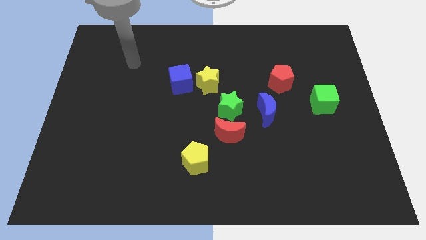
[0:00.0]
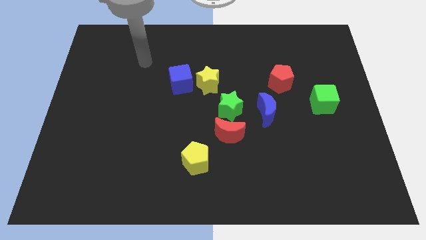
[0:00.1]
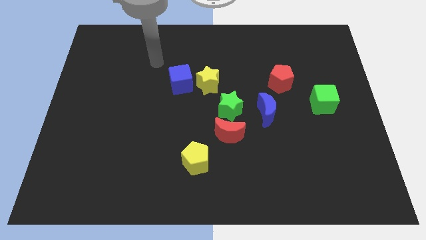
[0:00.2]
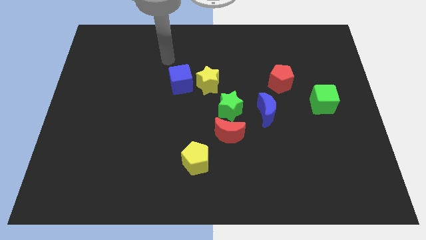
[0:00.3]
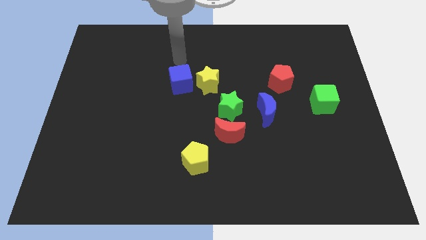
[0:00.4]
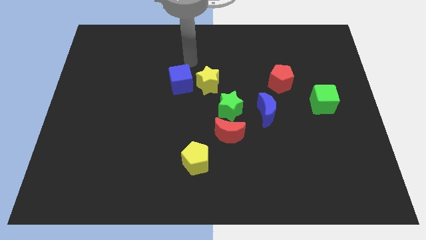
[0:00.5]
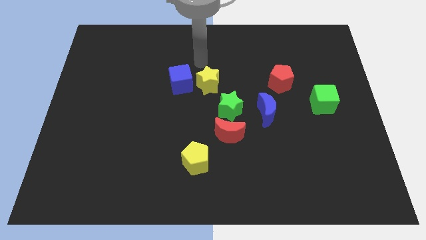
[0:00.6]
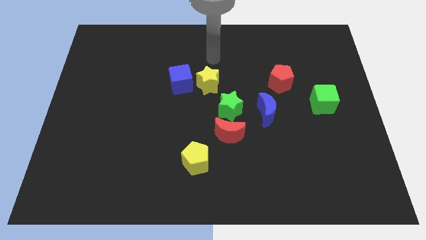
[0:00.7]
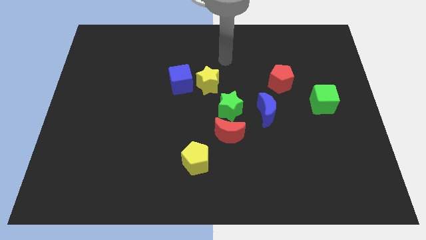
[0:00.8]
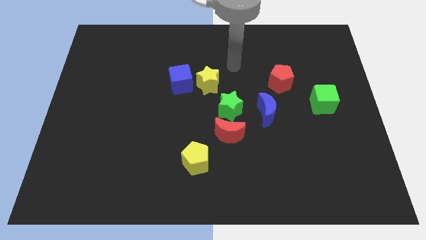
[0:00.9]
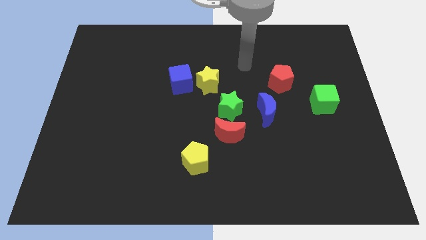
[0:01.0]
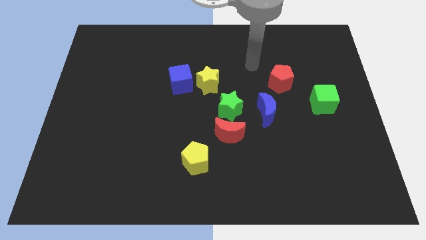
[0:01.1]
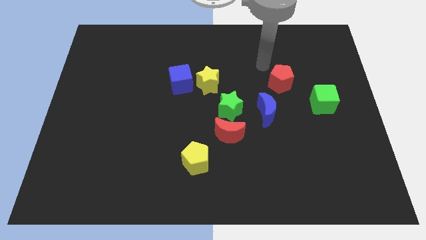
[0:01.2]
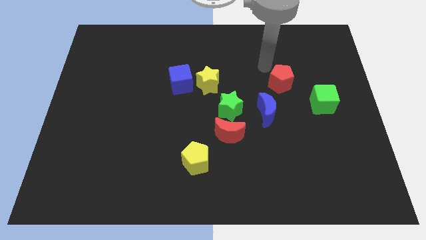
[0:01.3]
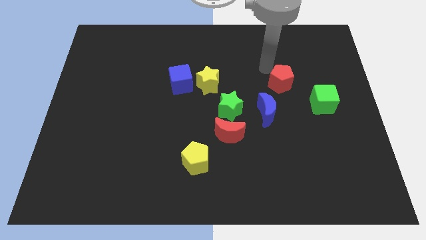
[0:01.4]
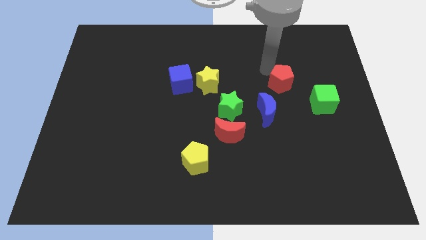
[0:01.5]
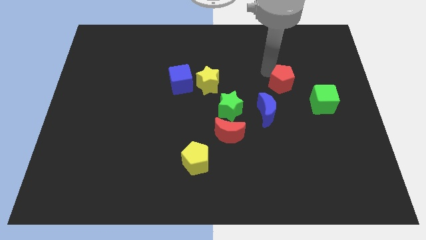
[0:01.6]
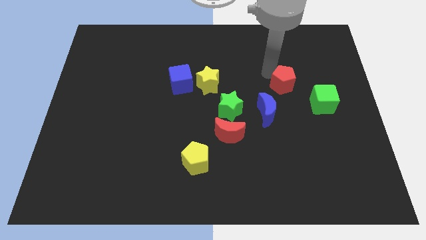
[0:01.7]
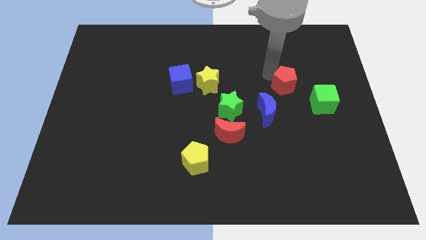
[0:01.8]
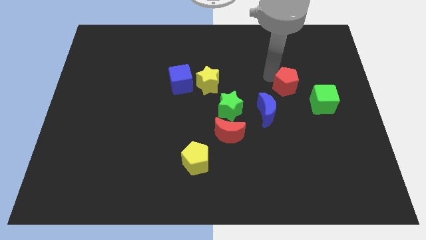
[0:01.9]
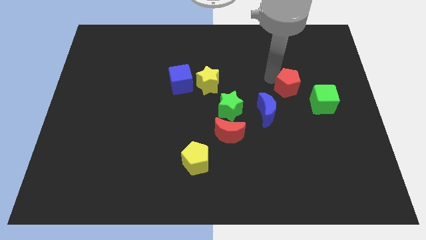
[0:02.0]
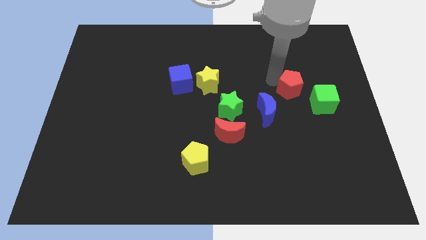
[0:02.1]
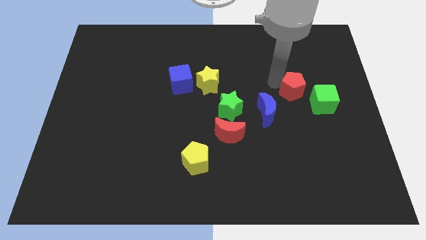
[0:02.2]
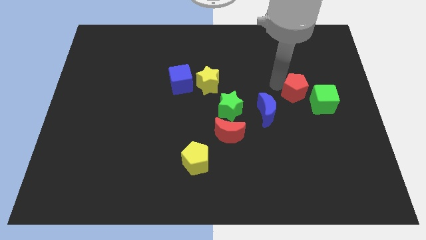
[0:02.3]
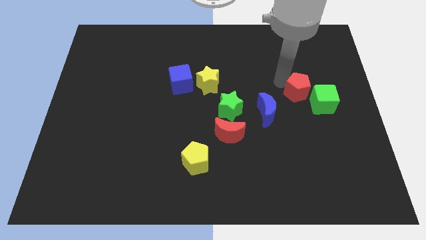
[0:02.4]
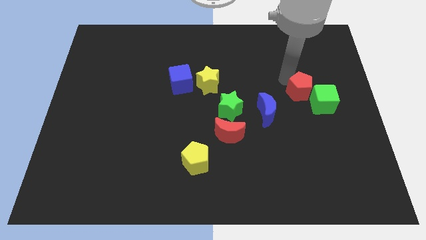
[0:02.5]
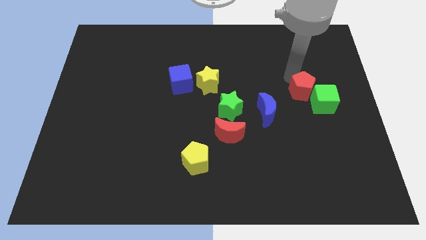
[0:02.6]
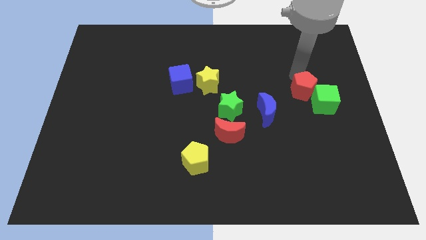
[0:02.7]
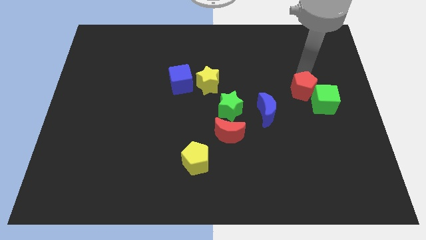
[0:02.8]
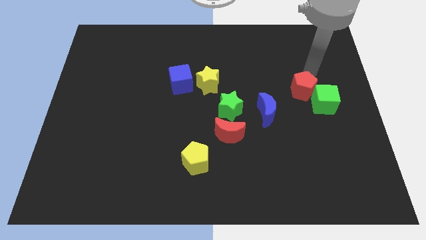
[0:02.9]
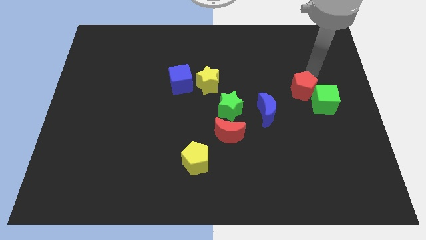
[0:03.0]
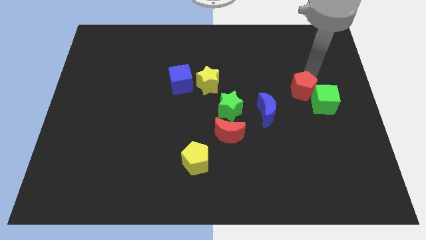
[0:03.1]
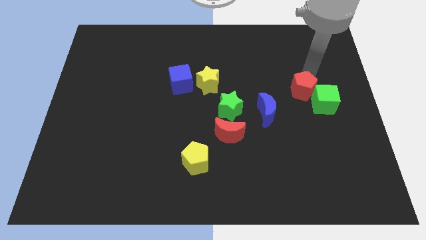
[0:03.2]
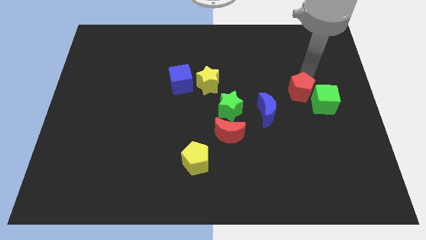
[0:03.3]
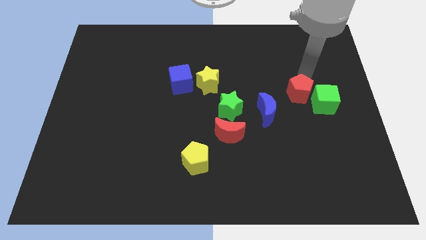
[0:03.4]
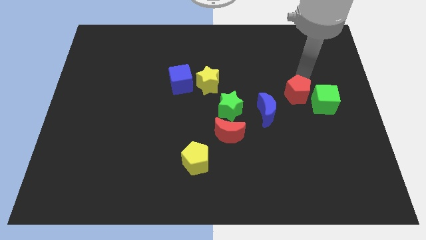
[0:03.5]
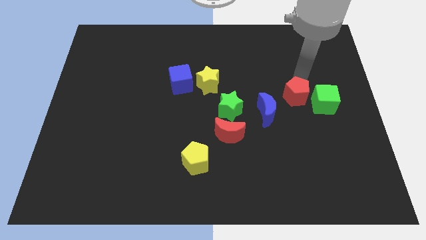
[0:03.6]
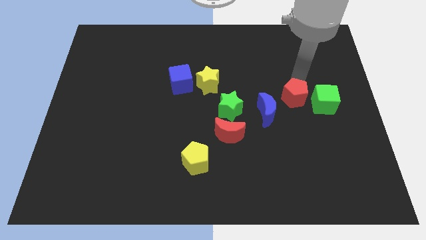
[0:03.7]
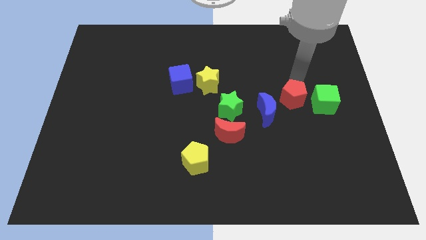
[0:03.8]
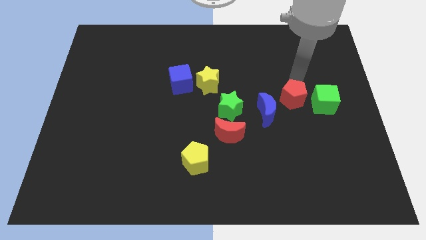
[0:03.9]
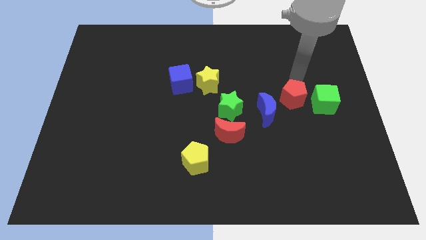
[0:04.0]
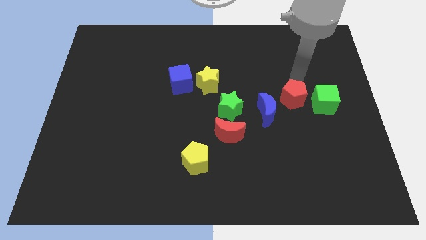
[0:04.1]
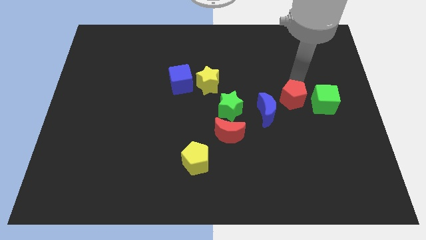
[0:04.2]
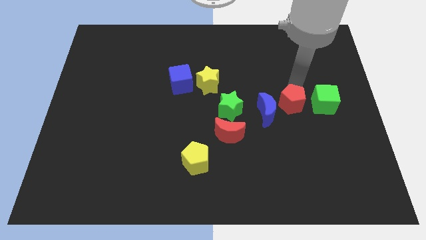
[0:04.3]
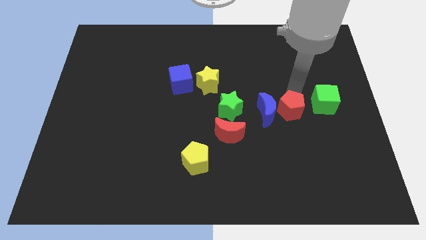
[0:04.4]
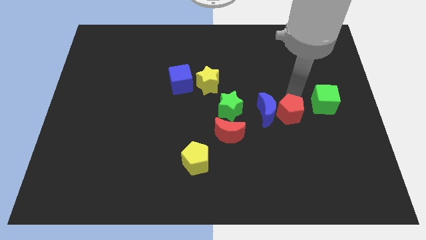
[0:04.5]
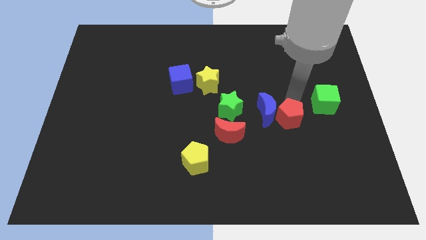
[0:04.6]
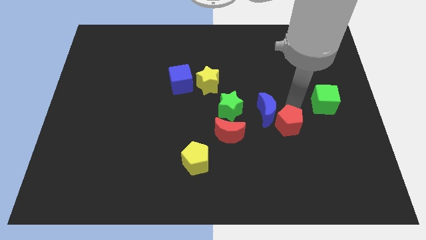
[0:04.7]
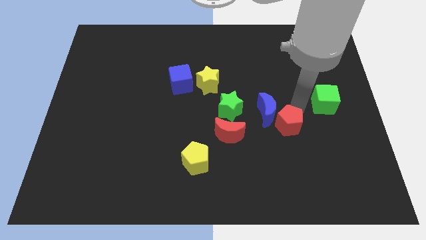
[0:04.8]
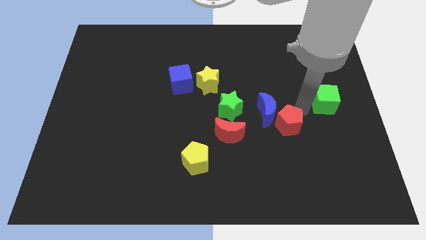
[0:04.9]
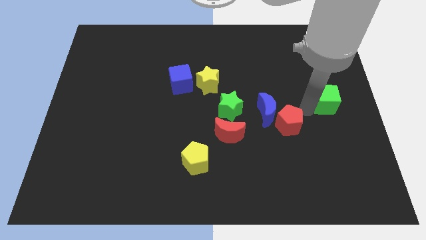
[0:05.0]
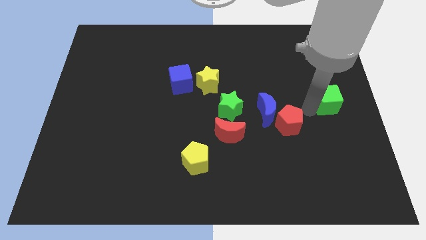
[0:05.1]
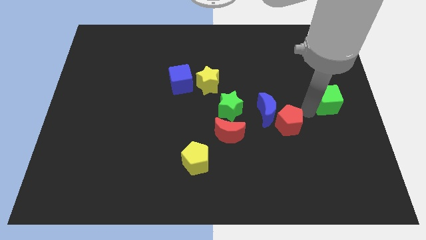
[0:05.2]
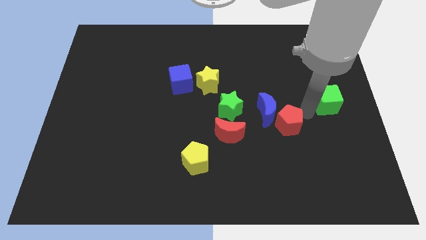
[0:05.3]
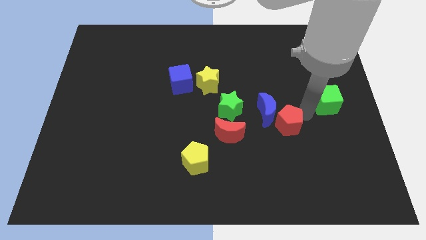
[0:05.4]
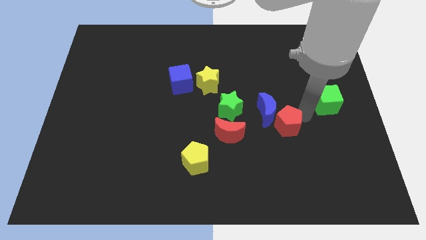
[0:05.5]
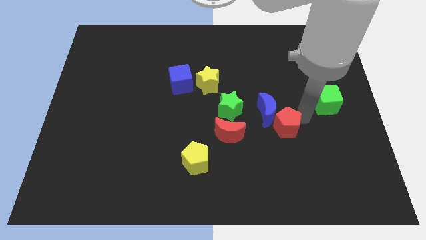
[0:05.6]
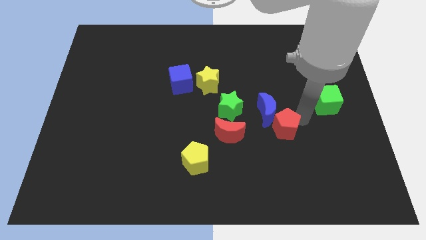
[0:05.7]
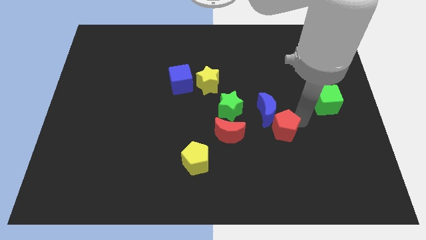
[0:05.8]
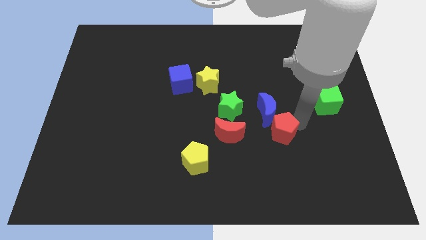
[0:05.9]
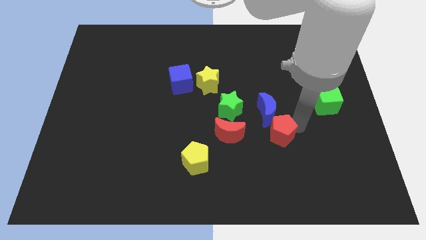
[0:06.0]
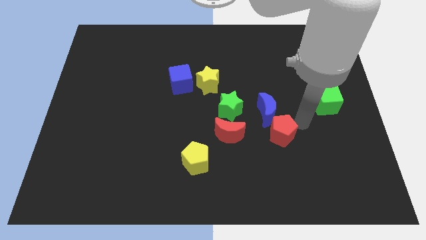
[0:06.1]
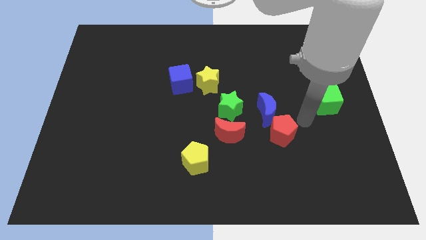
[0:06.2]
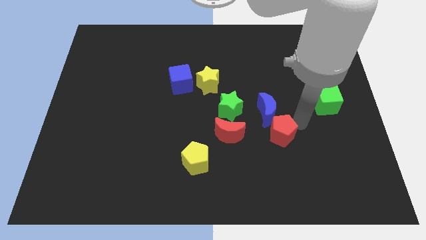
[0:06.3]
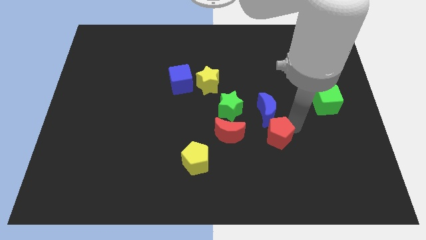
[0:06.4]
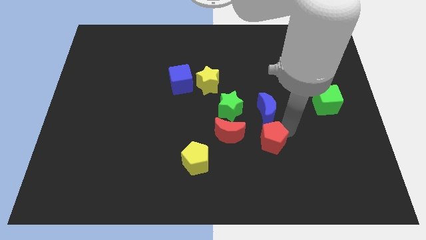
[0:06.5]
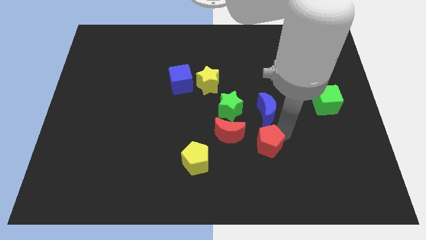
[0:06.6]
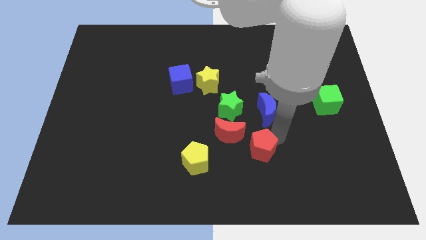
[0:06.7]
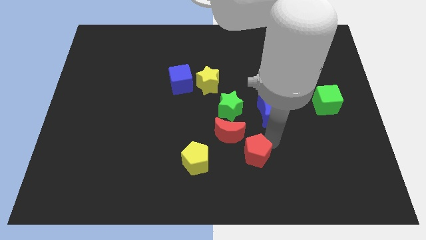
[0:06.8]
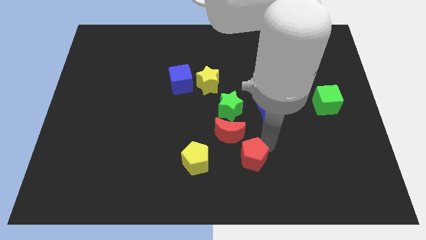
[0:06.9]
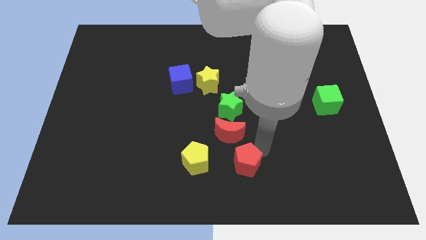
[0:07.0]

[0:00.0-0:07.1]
push the red pentagon to the bottom side of the red moon
